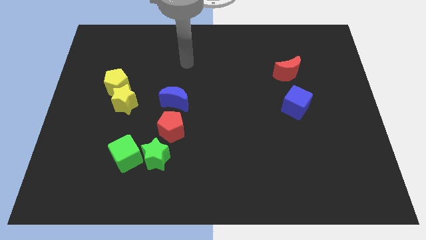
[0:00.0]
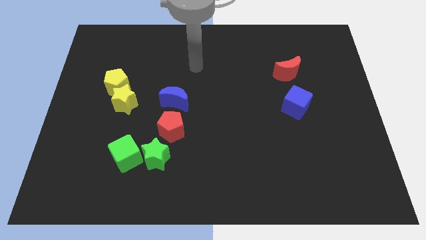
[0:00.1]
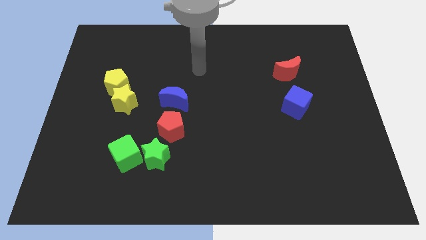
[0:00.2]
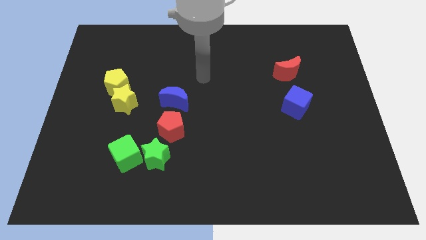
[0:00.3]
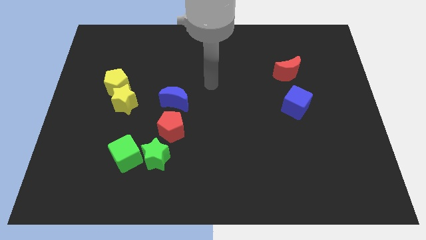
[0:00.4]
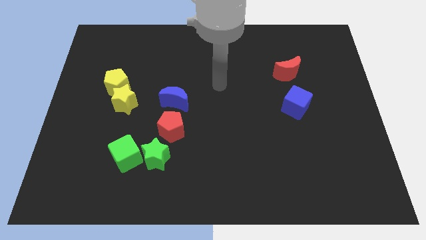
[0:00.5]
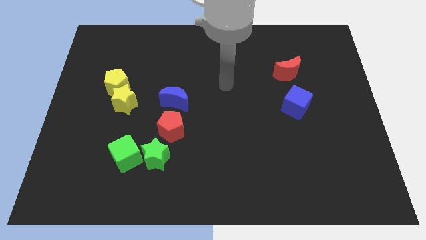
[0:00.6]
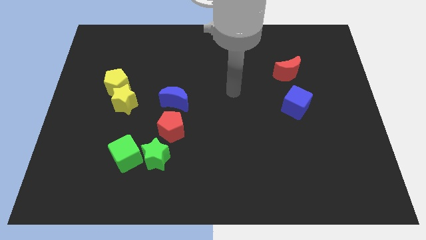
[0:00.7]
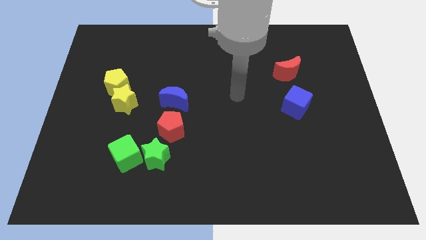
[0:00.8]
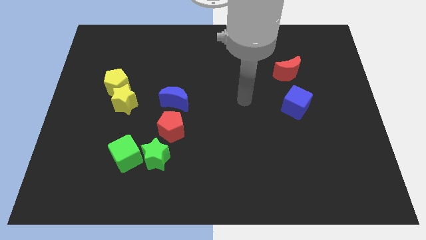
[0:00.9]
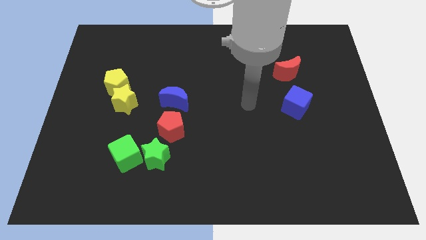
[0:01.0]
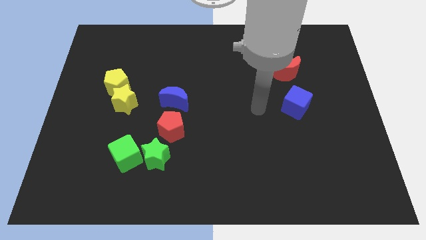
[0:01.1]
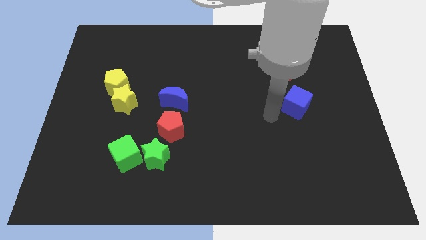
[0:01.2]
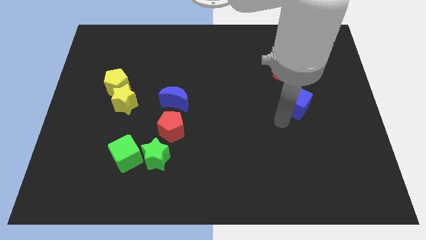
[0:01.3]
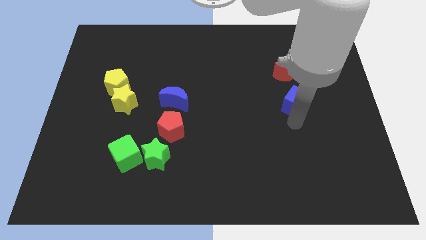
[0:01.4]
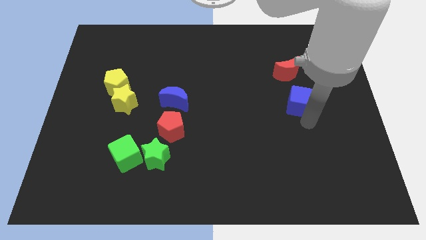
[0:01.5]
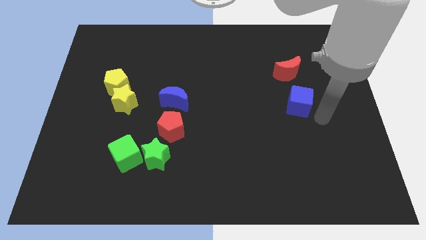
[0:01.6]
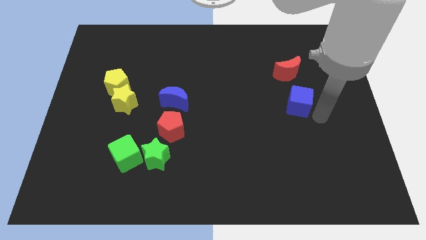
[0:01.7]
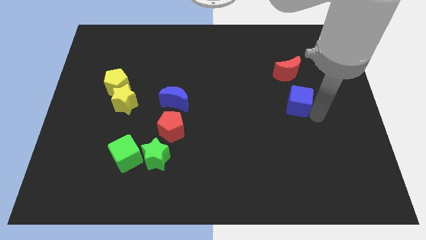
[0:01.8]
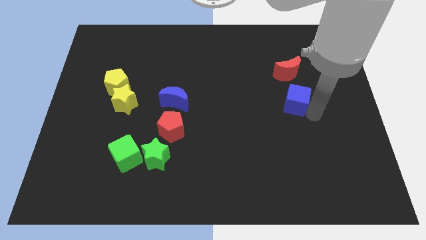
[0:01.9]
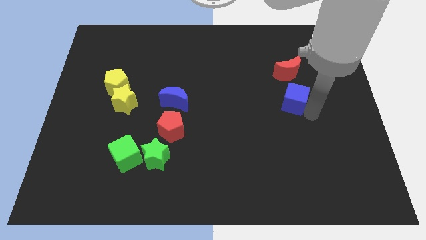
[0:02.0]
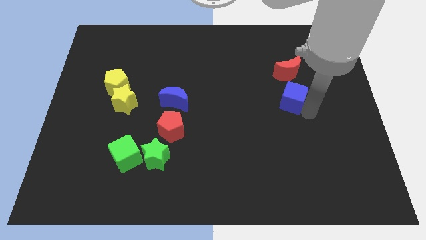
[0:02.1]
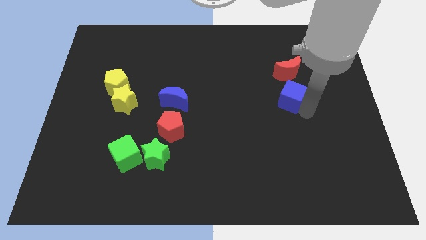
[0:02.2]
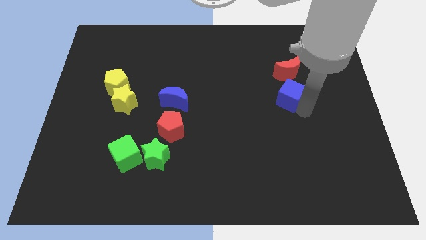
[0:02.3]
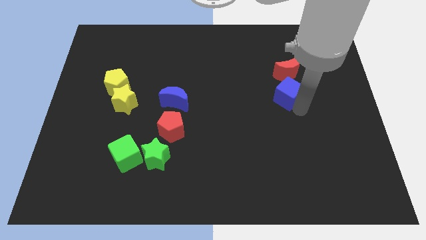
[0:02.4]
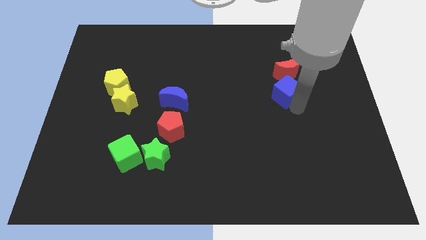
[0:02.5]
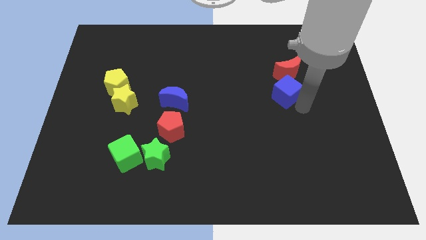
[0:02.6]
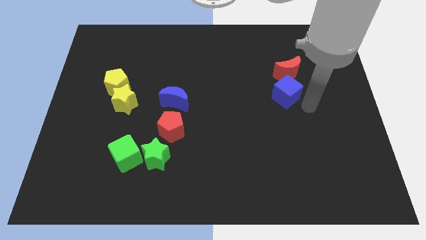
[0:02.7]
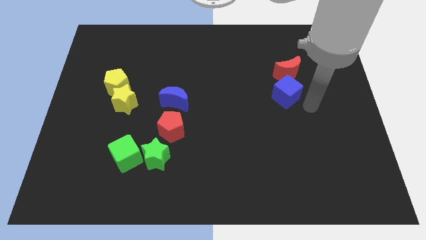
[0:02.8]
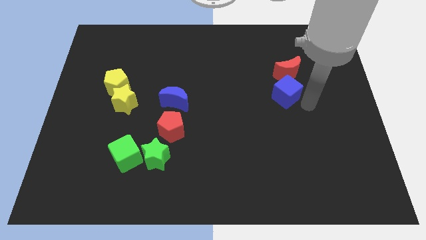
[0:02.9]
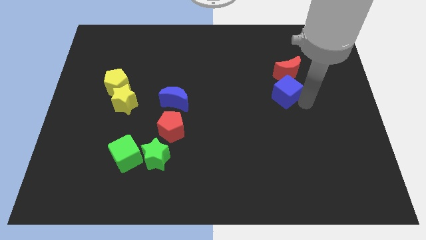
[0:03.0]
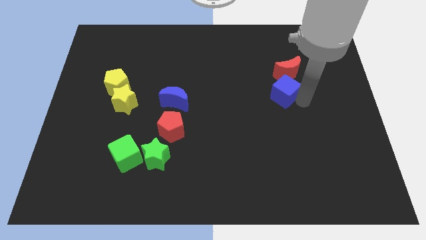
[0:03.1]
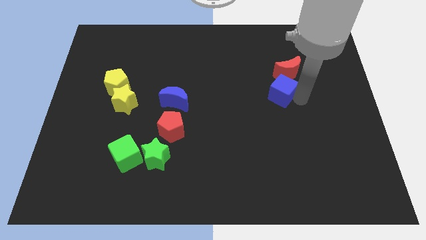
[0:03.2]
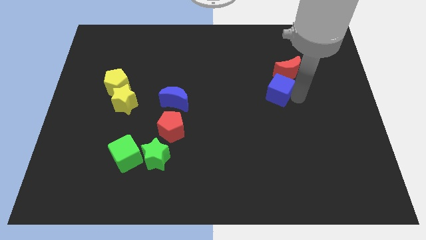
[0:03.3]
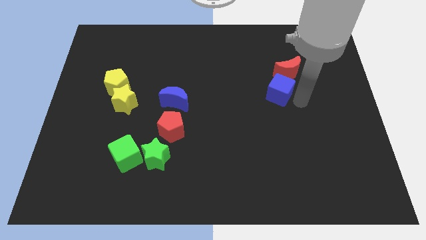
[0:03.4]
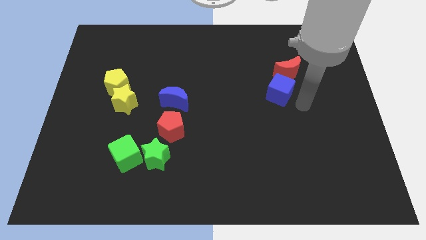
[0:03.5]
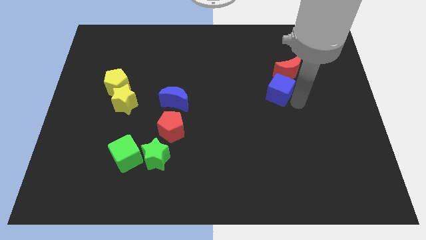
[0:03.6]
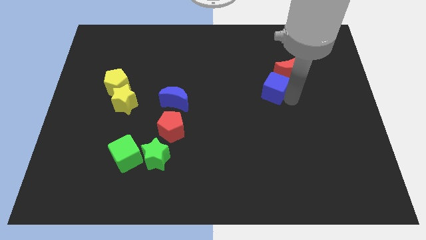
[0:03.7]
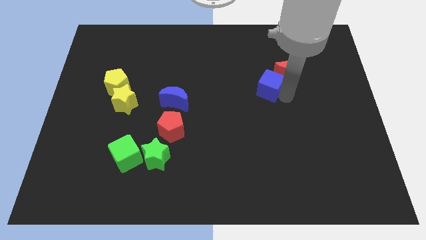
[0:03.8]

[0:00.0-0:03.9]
slightly push the blue cube up and to the left diagonally

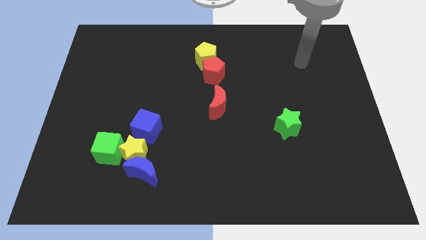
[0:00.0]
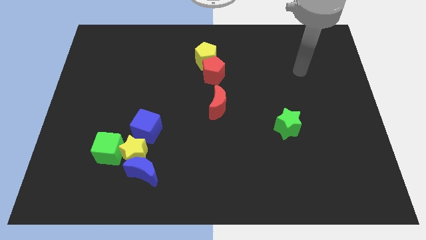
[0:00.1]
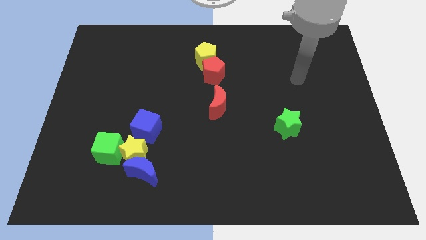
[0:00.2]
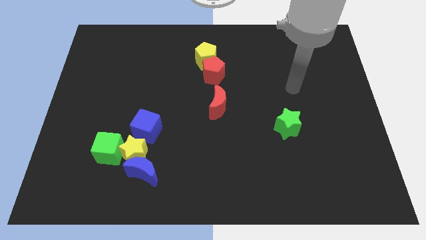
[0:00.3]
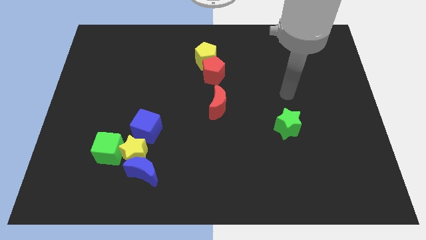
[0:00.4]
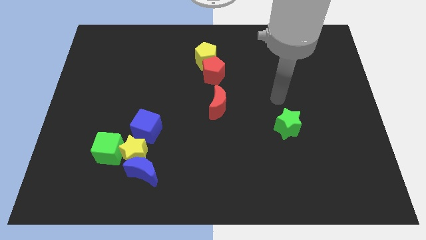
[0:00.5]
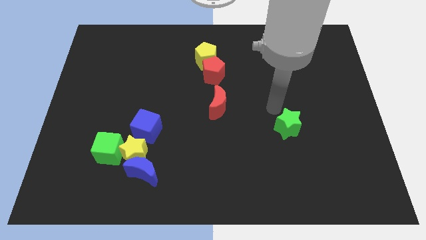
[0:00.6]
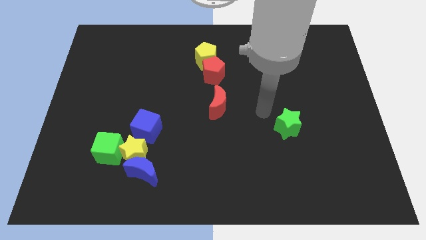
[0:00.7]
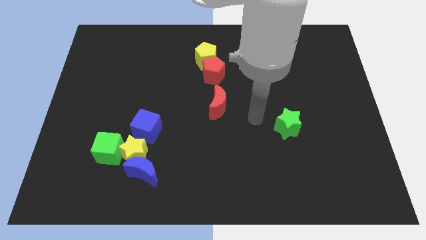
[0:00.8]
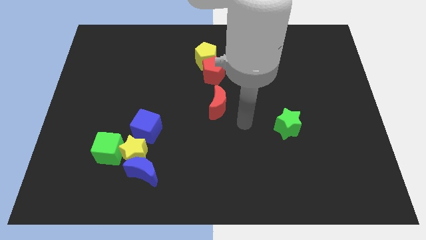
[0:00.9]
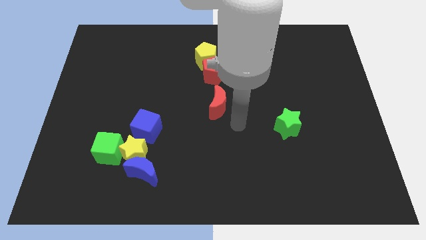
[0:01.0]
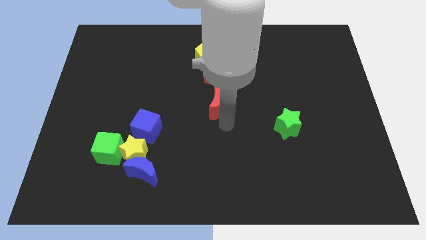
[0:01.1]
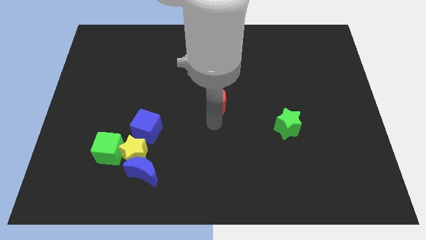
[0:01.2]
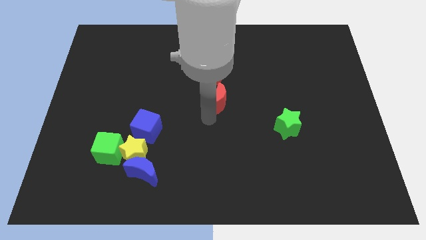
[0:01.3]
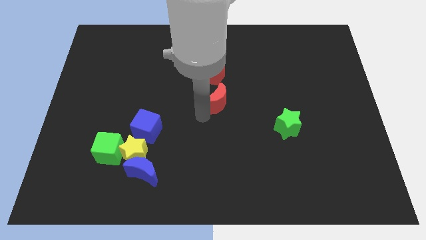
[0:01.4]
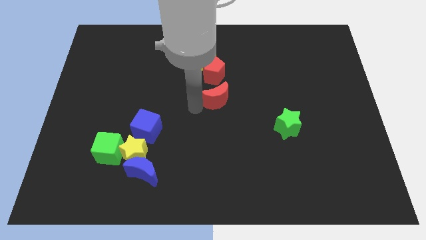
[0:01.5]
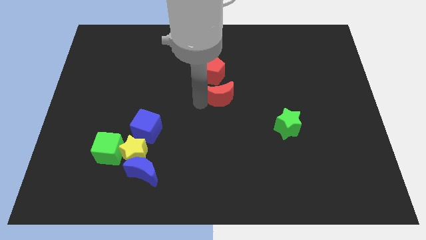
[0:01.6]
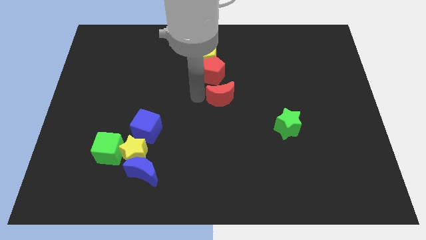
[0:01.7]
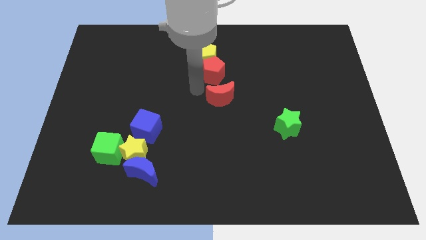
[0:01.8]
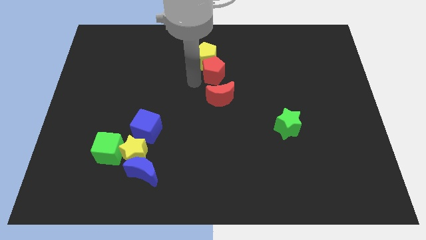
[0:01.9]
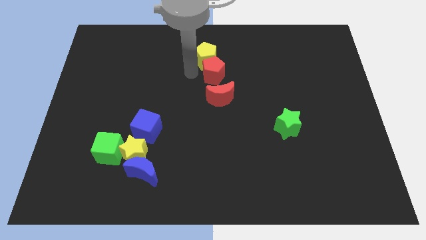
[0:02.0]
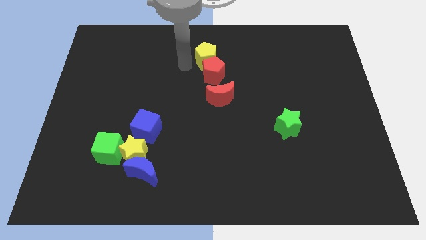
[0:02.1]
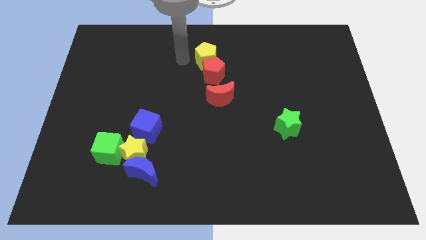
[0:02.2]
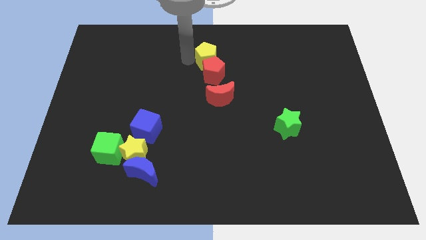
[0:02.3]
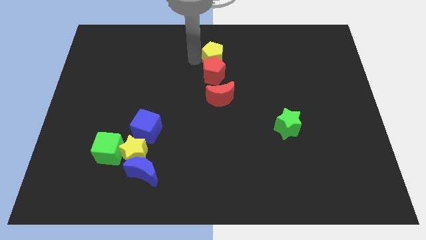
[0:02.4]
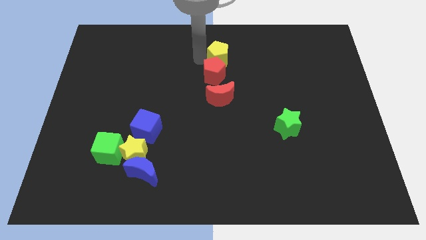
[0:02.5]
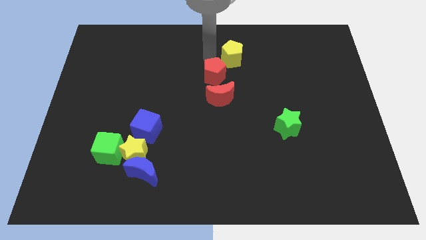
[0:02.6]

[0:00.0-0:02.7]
slide the yellow pentagon to the right slightly

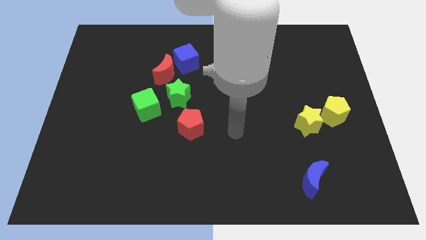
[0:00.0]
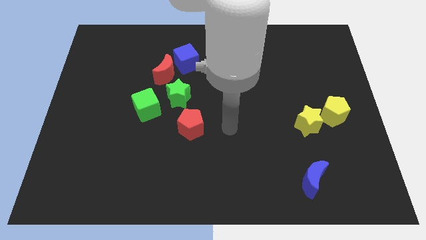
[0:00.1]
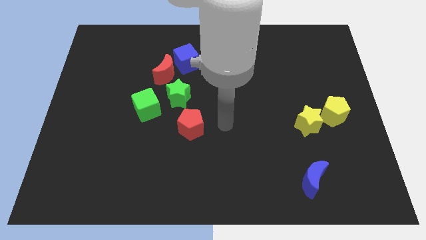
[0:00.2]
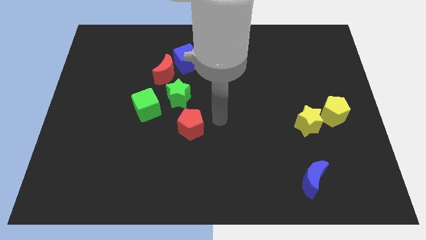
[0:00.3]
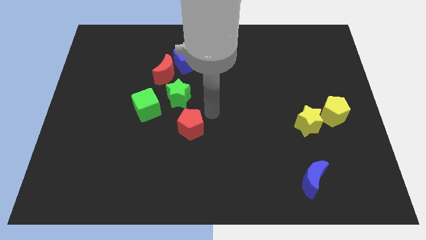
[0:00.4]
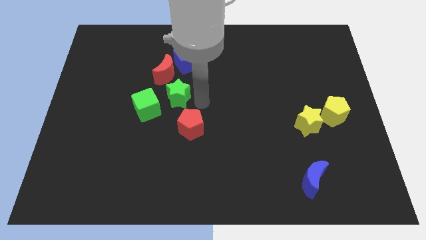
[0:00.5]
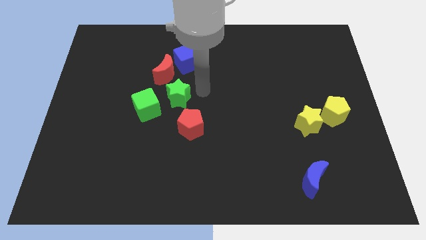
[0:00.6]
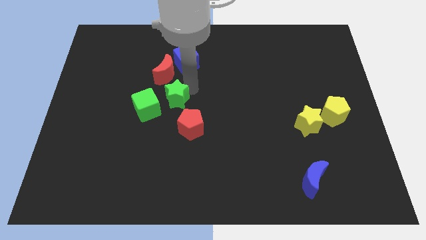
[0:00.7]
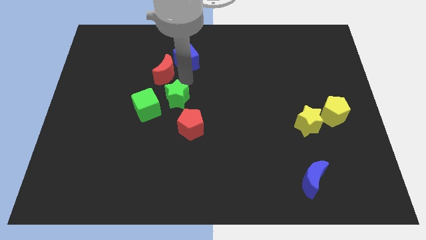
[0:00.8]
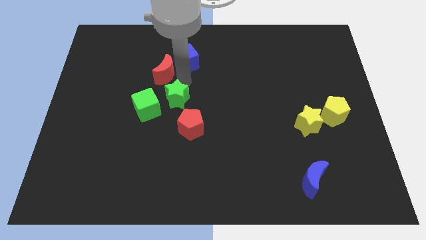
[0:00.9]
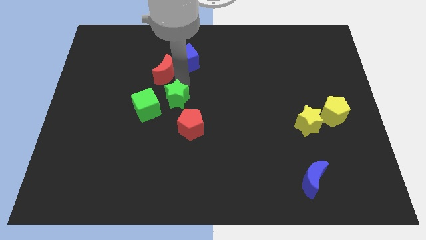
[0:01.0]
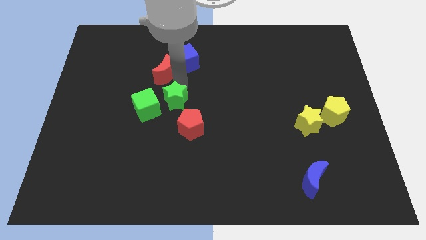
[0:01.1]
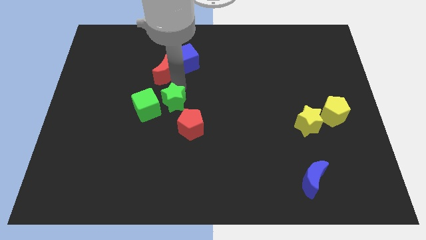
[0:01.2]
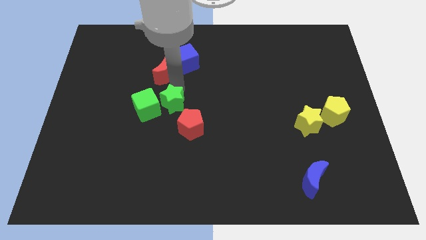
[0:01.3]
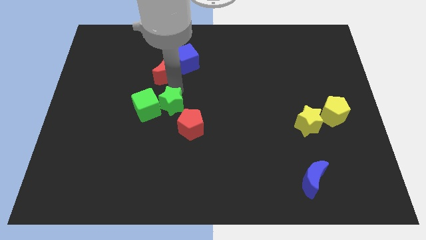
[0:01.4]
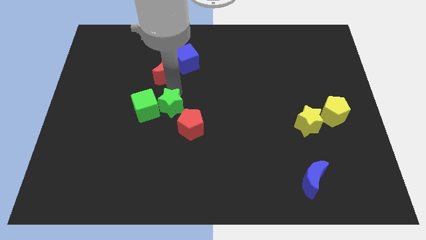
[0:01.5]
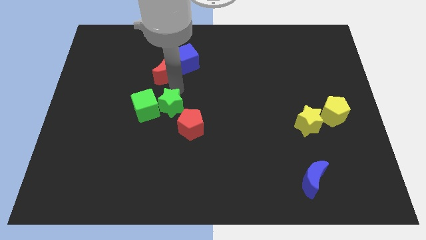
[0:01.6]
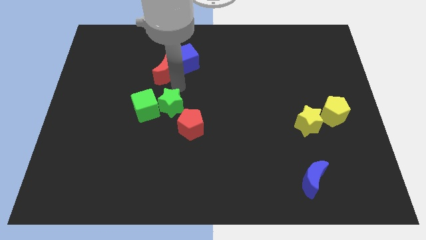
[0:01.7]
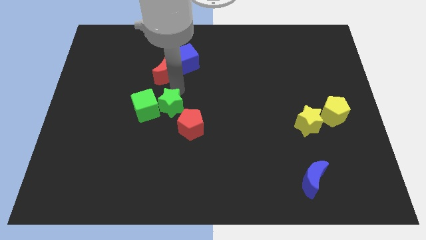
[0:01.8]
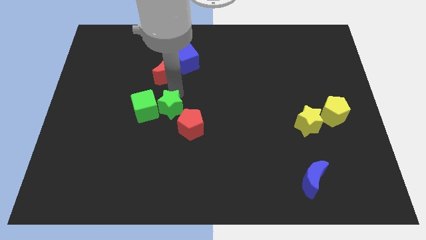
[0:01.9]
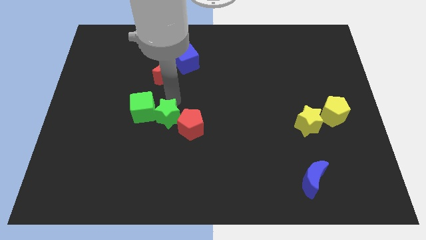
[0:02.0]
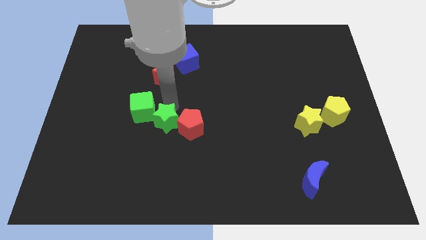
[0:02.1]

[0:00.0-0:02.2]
push the green star downwards somewhat
